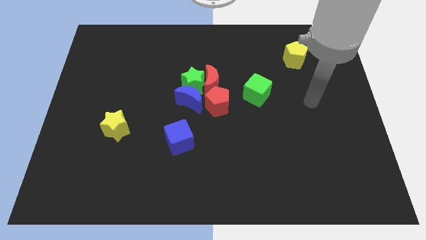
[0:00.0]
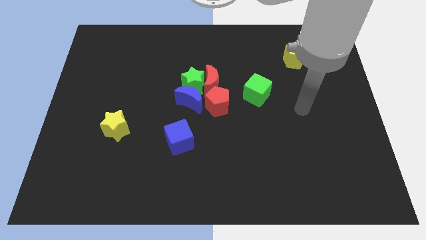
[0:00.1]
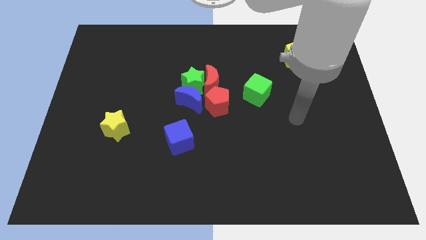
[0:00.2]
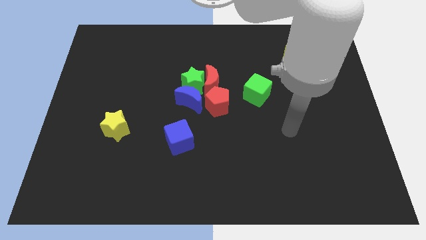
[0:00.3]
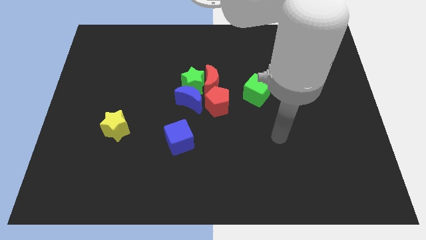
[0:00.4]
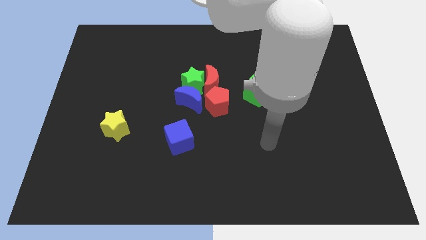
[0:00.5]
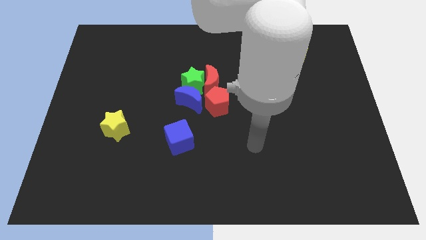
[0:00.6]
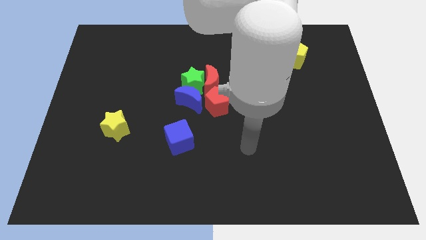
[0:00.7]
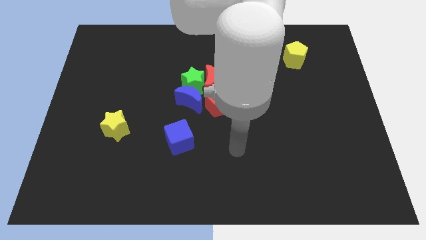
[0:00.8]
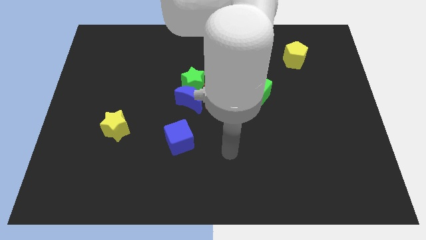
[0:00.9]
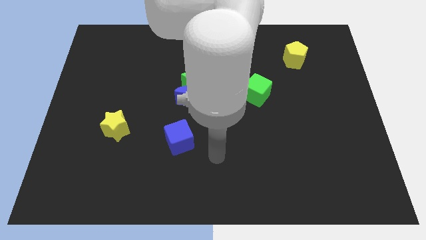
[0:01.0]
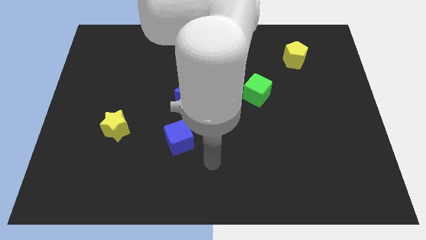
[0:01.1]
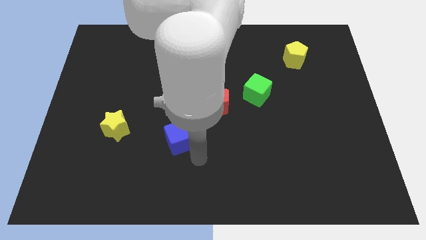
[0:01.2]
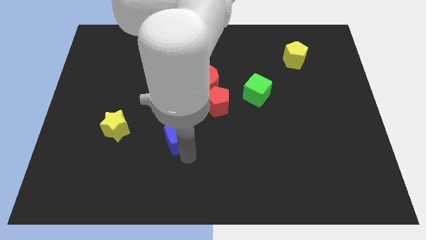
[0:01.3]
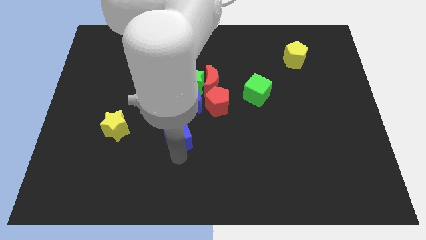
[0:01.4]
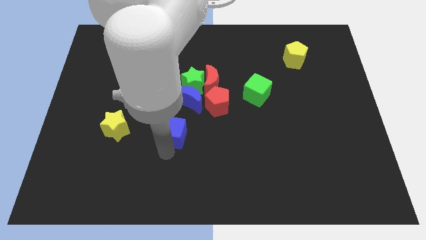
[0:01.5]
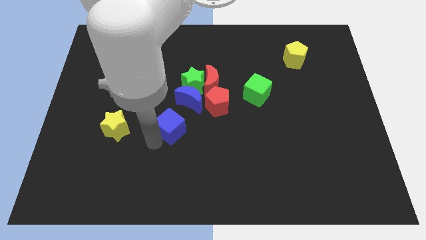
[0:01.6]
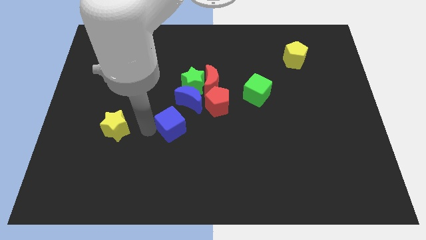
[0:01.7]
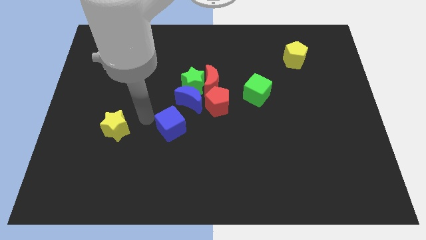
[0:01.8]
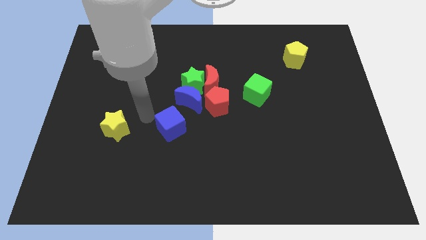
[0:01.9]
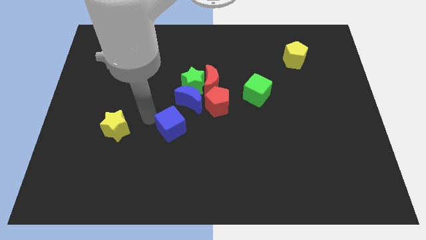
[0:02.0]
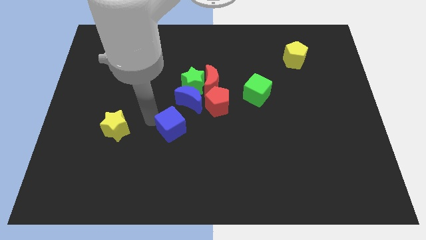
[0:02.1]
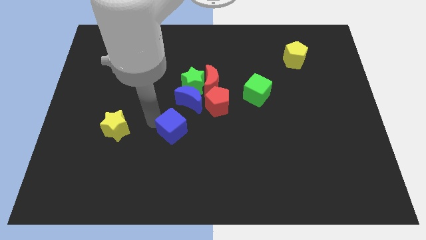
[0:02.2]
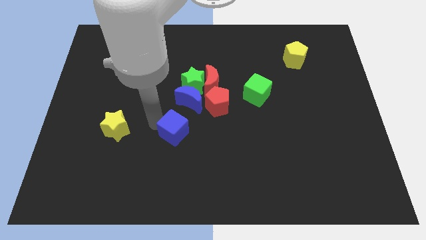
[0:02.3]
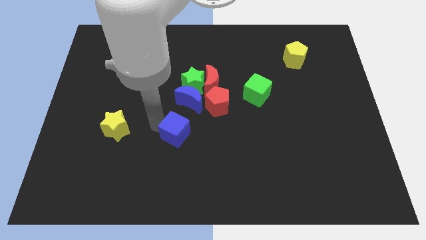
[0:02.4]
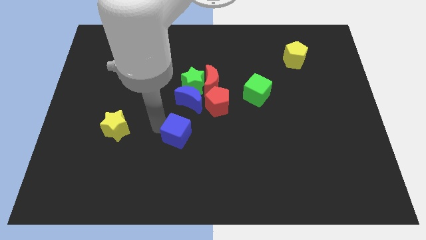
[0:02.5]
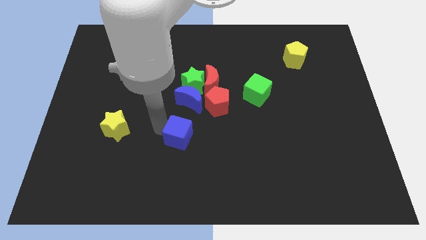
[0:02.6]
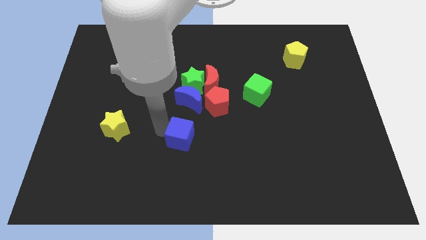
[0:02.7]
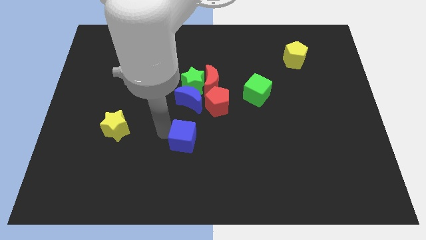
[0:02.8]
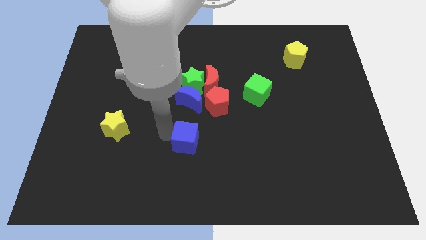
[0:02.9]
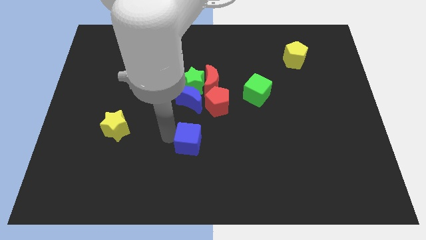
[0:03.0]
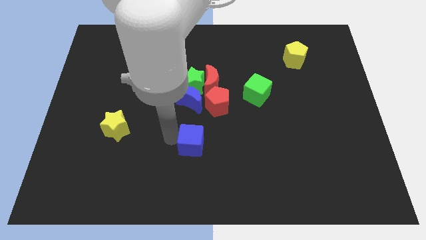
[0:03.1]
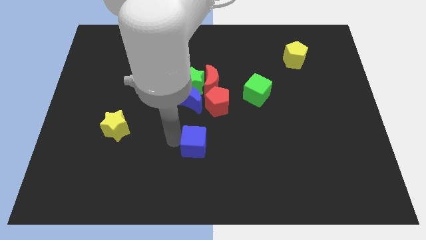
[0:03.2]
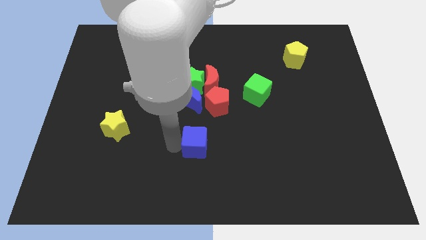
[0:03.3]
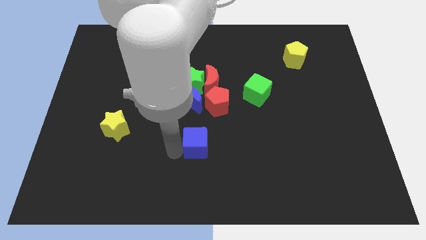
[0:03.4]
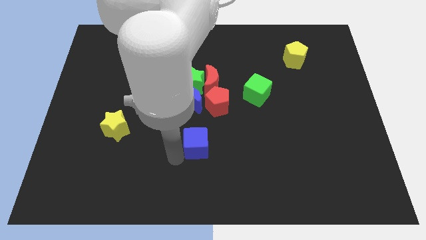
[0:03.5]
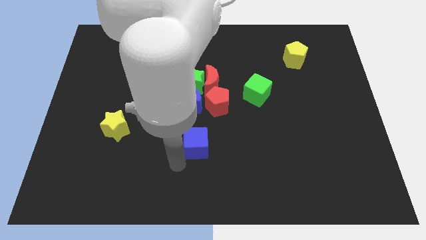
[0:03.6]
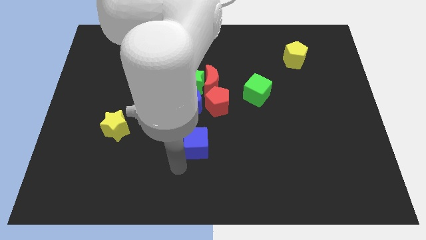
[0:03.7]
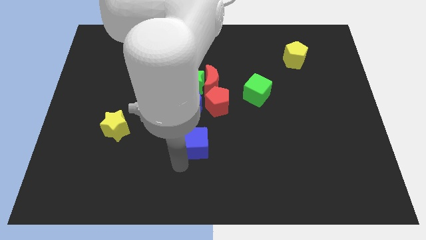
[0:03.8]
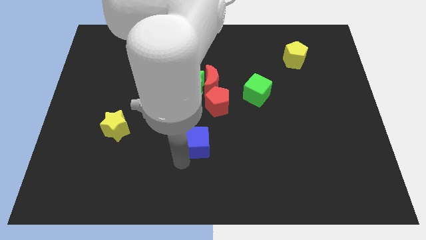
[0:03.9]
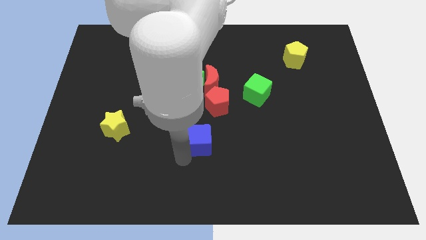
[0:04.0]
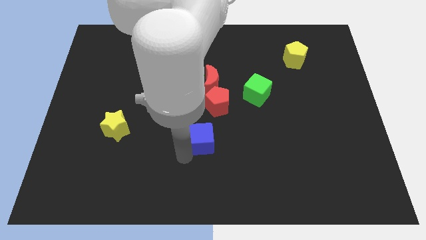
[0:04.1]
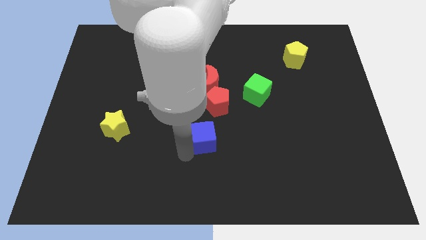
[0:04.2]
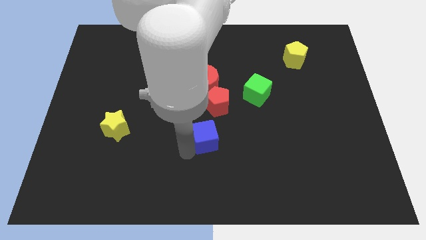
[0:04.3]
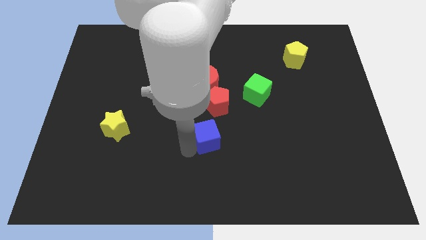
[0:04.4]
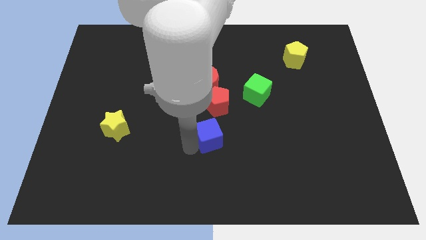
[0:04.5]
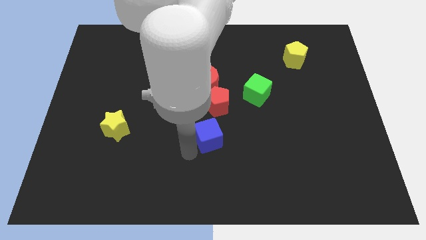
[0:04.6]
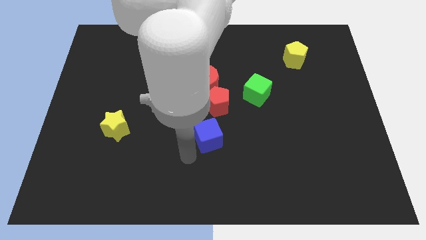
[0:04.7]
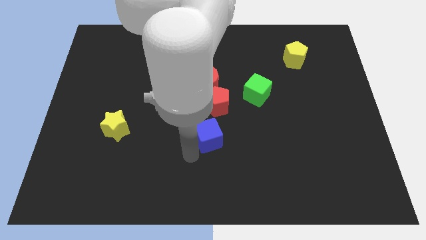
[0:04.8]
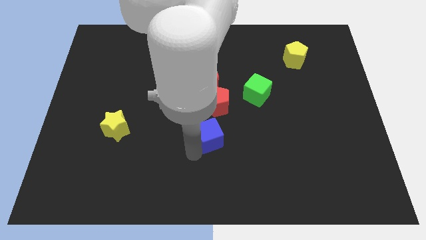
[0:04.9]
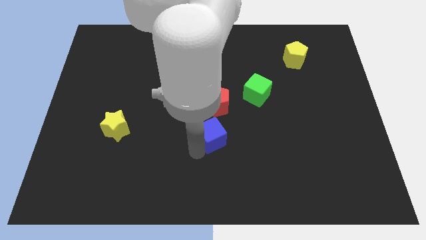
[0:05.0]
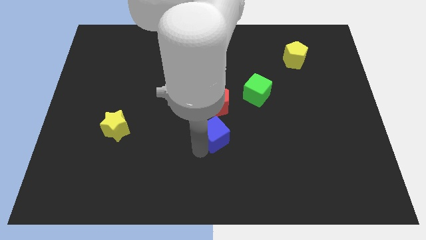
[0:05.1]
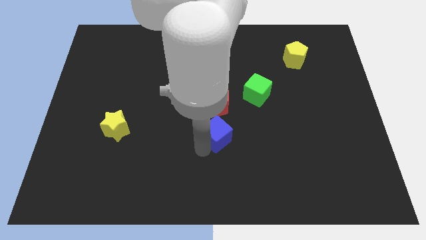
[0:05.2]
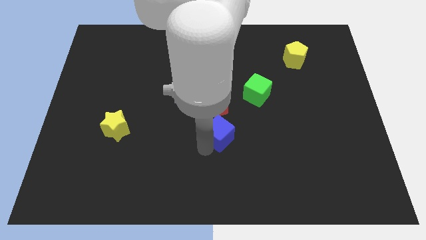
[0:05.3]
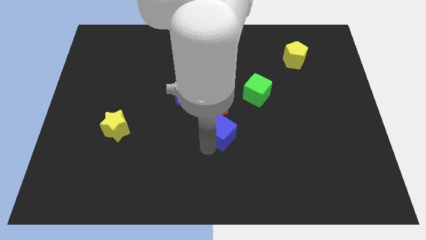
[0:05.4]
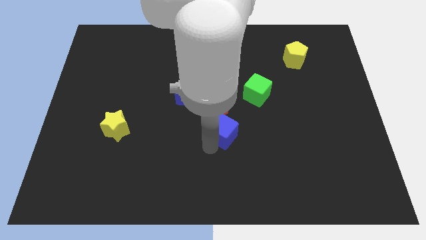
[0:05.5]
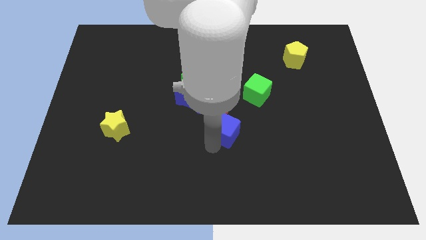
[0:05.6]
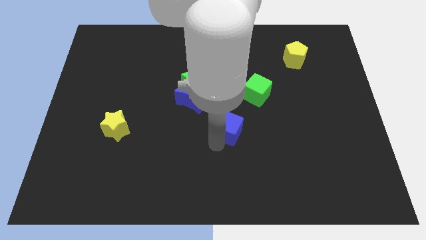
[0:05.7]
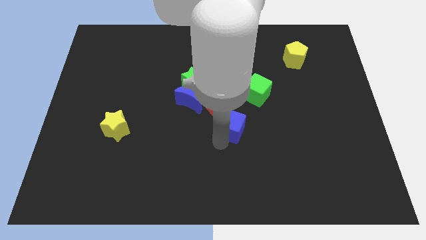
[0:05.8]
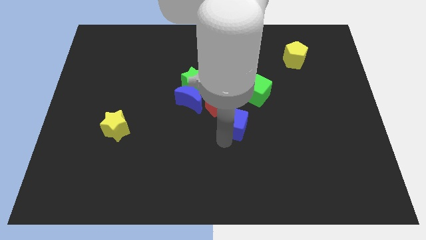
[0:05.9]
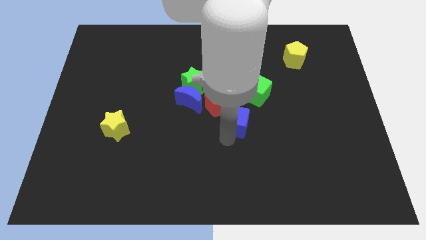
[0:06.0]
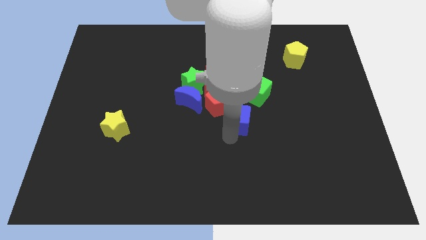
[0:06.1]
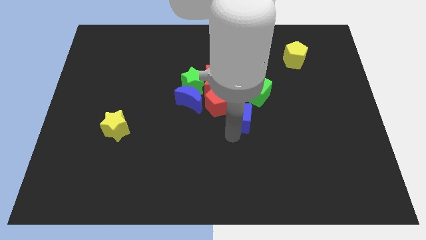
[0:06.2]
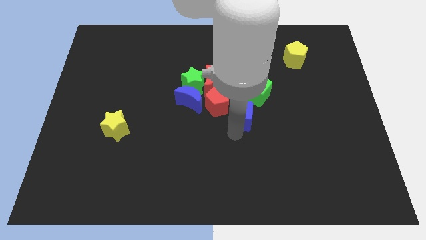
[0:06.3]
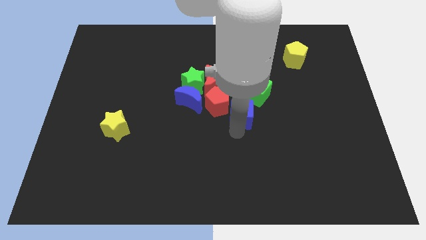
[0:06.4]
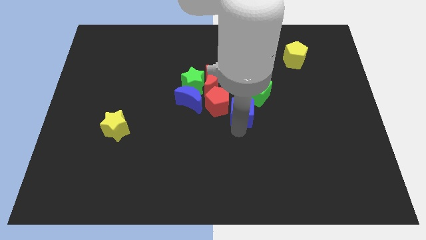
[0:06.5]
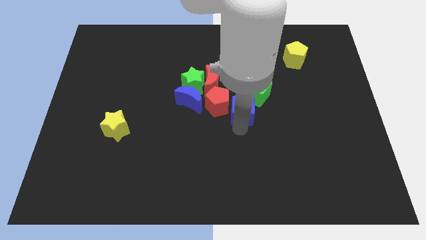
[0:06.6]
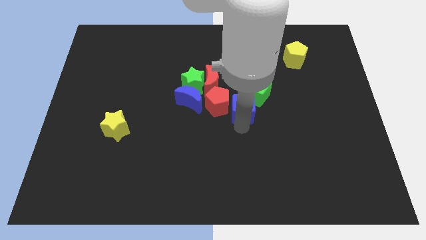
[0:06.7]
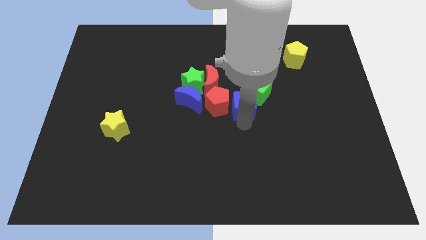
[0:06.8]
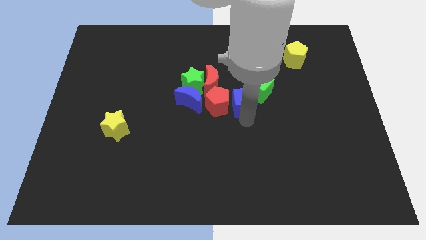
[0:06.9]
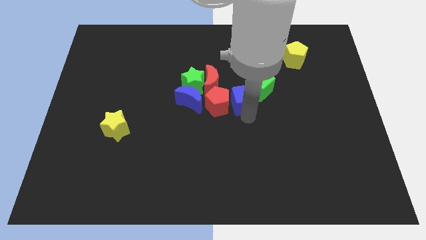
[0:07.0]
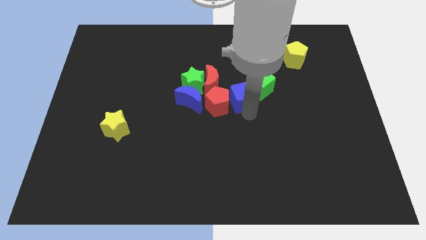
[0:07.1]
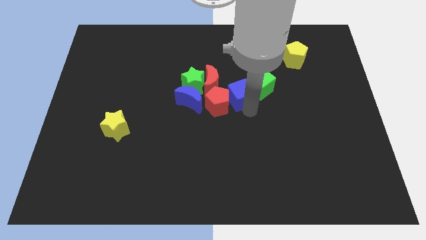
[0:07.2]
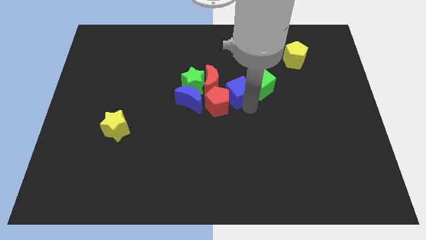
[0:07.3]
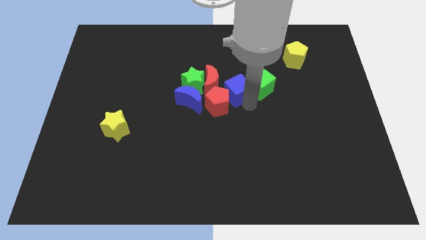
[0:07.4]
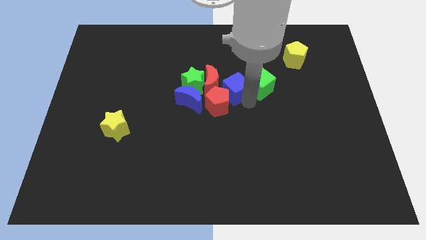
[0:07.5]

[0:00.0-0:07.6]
push the blue cube towards the red moon
